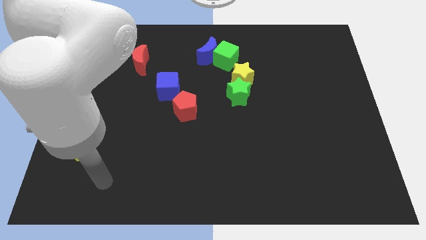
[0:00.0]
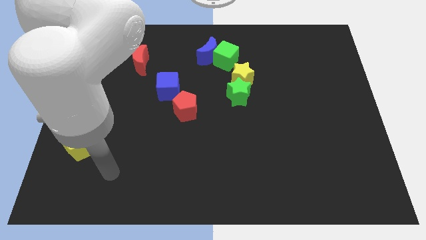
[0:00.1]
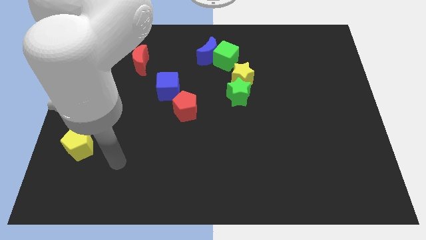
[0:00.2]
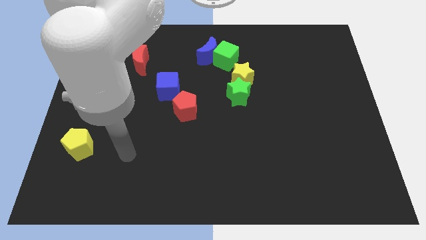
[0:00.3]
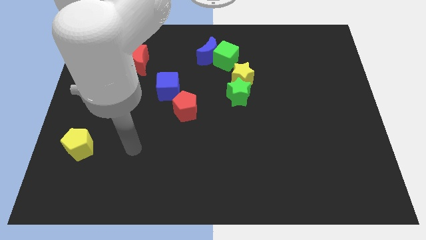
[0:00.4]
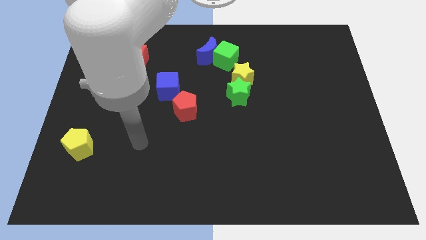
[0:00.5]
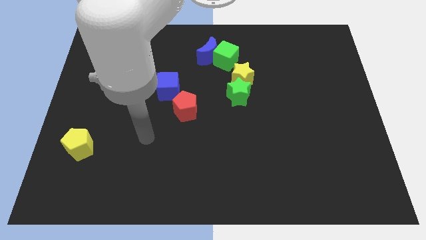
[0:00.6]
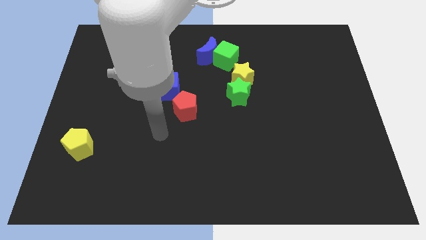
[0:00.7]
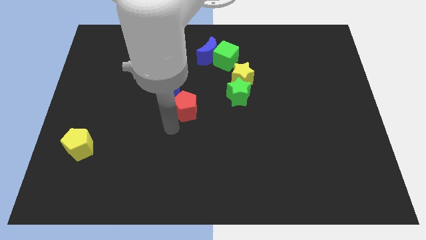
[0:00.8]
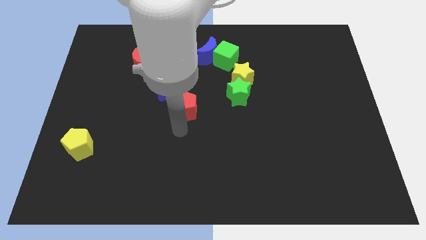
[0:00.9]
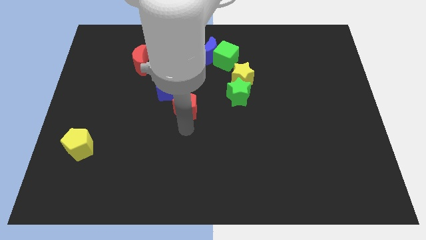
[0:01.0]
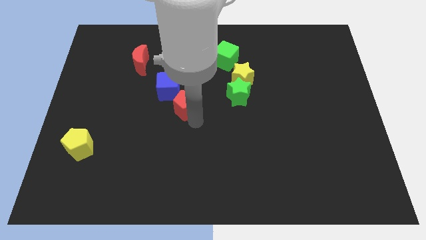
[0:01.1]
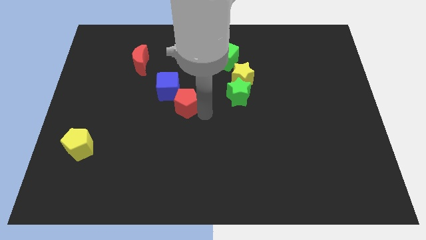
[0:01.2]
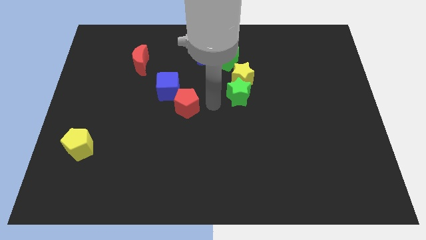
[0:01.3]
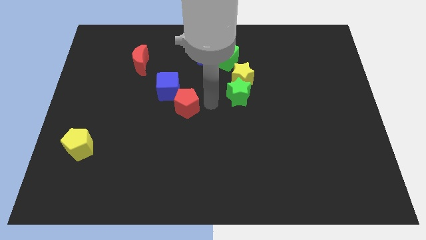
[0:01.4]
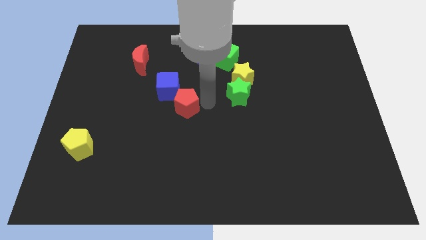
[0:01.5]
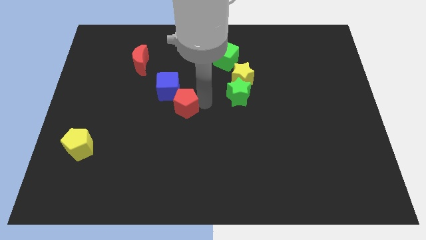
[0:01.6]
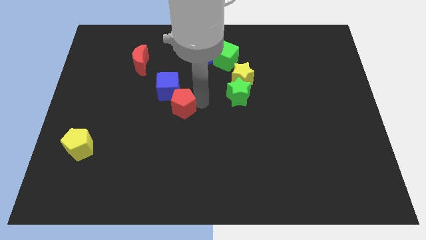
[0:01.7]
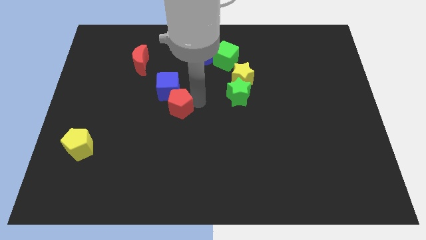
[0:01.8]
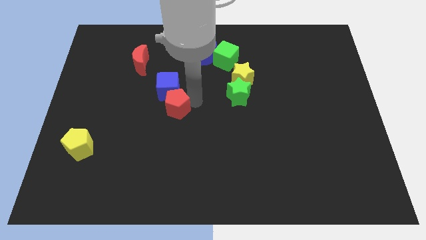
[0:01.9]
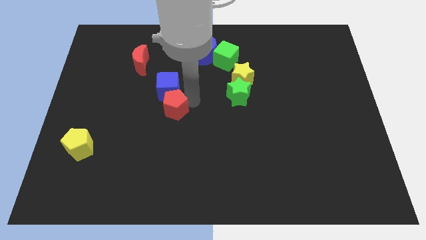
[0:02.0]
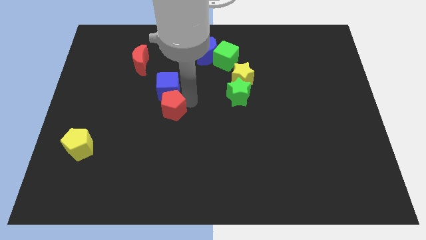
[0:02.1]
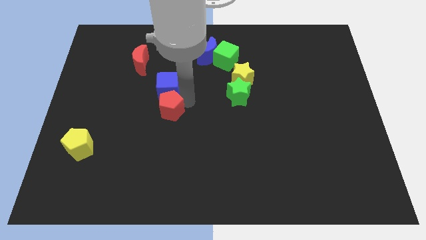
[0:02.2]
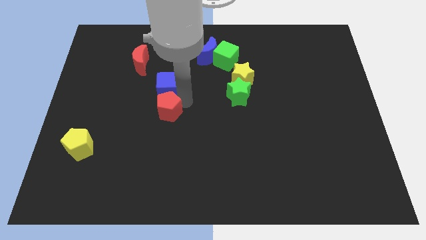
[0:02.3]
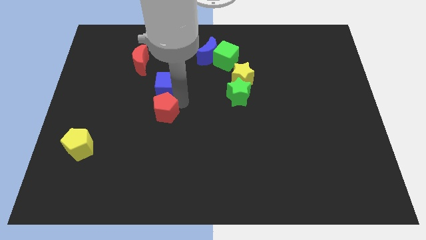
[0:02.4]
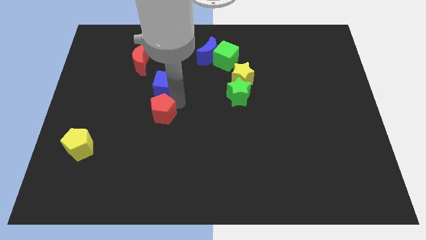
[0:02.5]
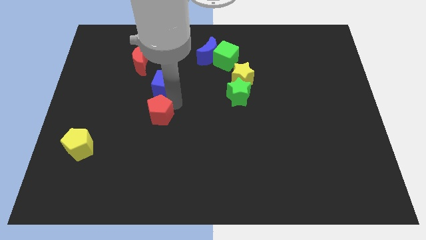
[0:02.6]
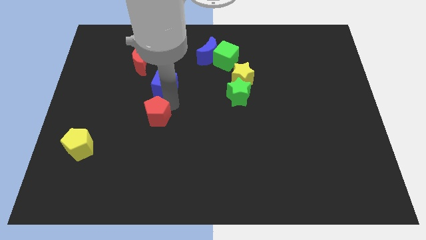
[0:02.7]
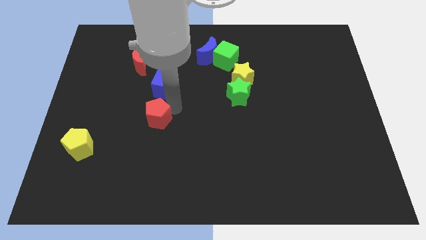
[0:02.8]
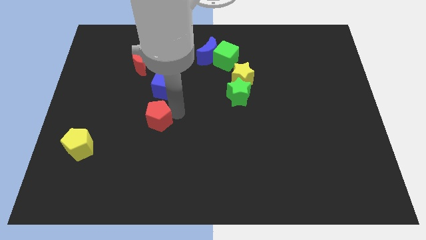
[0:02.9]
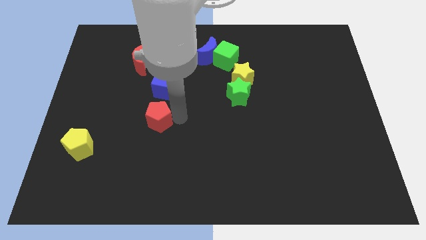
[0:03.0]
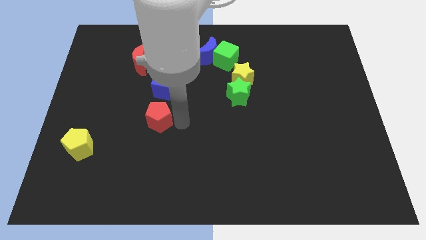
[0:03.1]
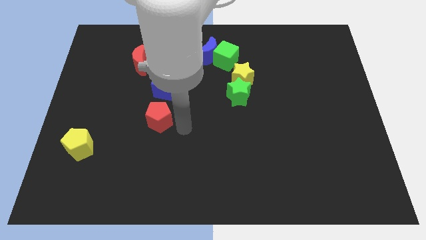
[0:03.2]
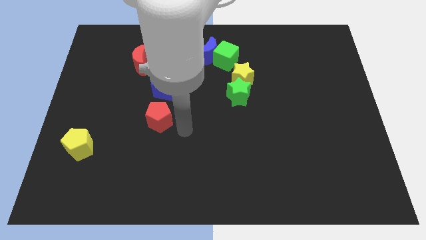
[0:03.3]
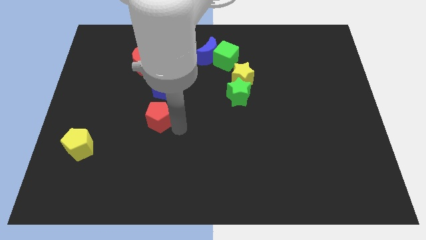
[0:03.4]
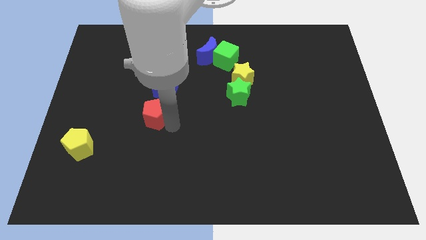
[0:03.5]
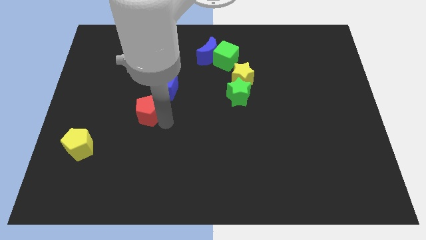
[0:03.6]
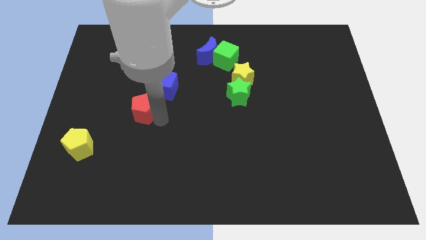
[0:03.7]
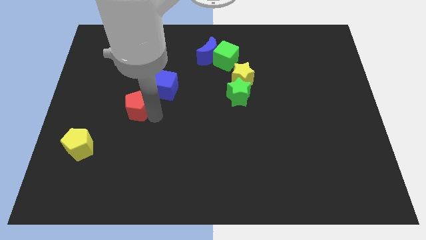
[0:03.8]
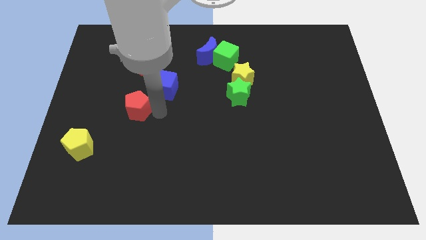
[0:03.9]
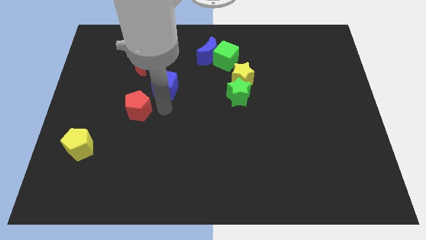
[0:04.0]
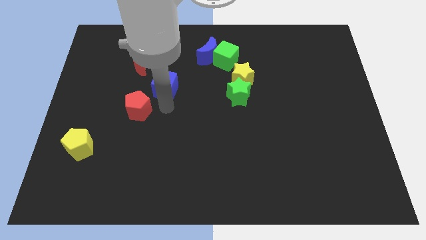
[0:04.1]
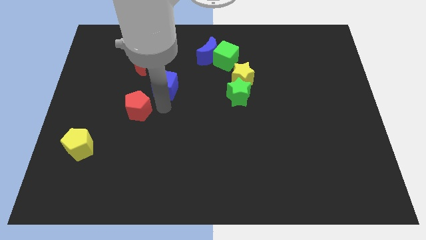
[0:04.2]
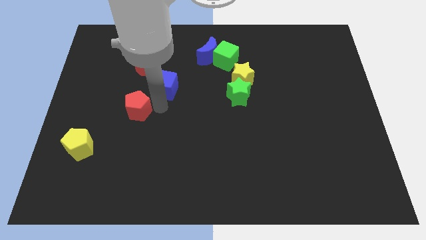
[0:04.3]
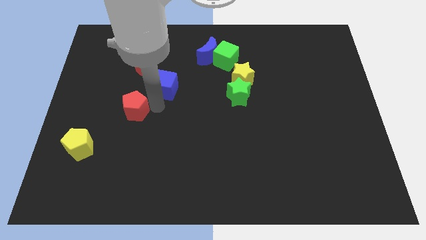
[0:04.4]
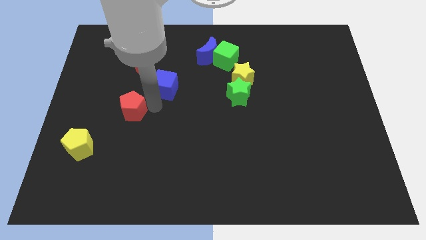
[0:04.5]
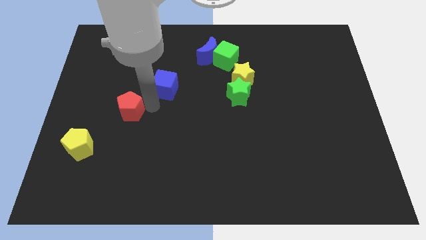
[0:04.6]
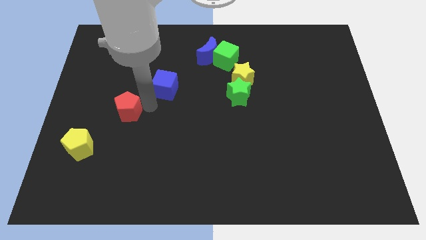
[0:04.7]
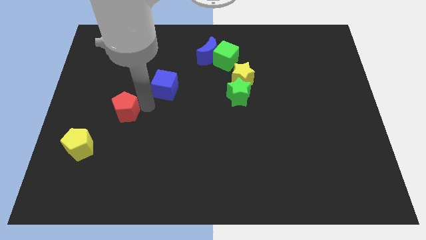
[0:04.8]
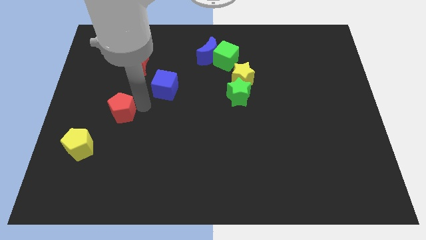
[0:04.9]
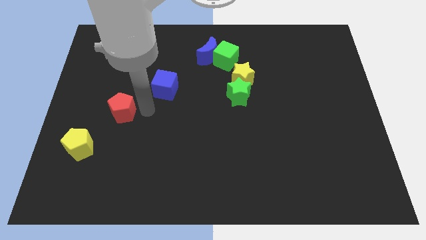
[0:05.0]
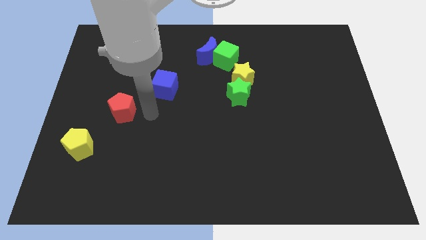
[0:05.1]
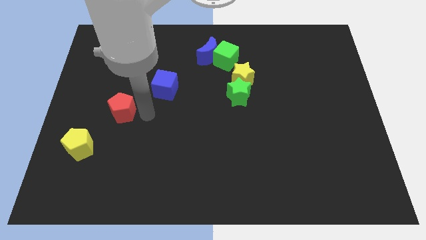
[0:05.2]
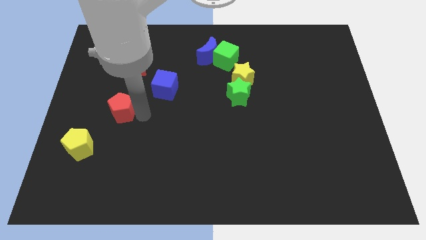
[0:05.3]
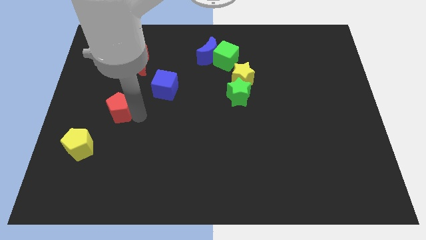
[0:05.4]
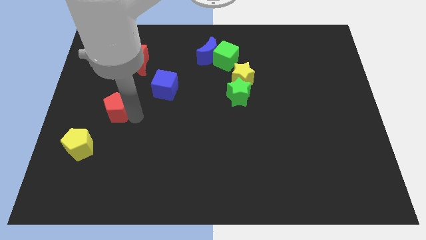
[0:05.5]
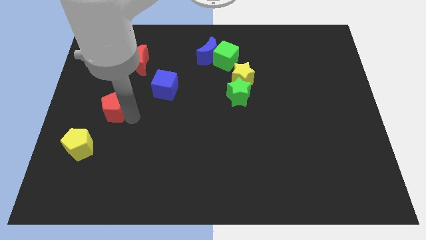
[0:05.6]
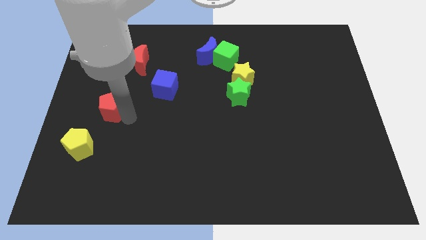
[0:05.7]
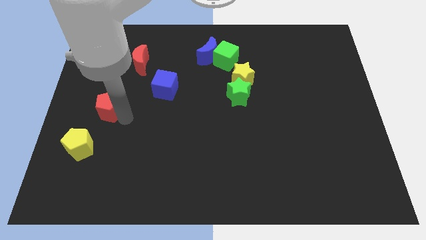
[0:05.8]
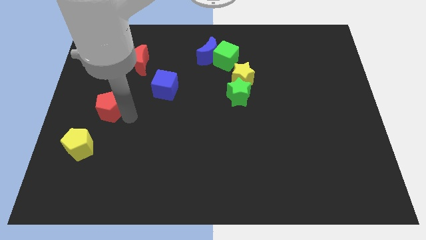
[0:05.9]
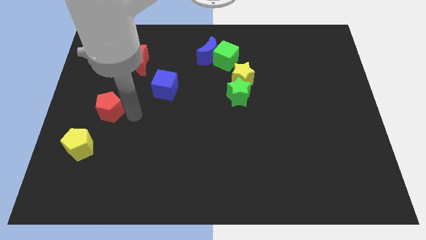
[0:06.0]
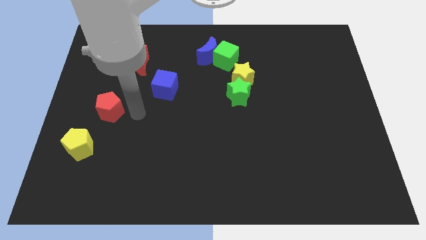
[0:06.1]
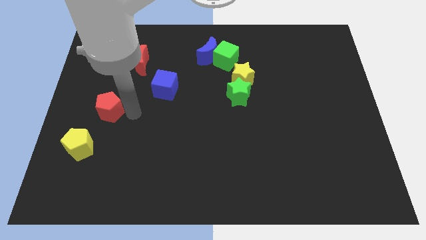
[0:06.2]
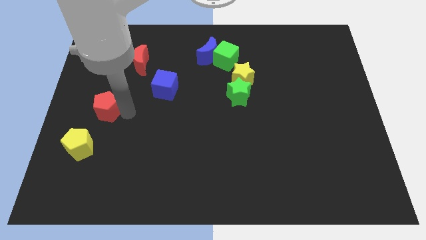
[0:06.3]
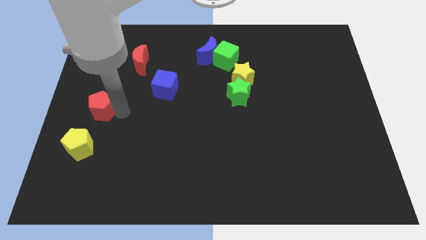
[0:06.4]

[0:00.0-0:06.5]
move the red pentagon to the left side of the board
